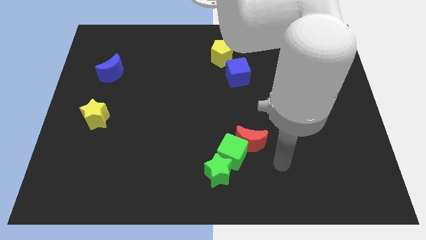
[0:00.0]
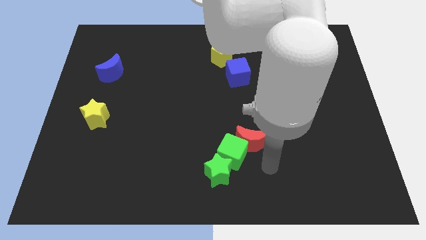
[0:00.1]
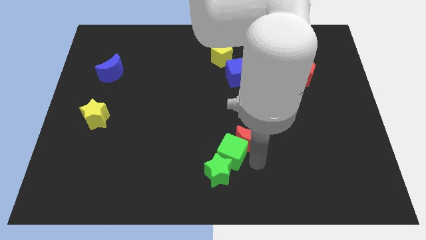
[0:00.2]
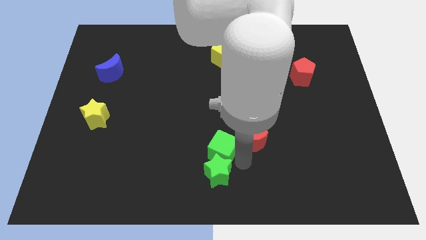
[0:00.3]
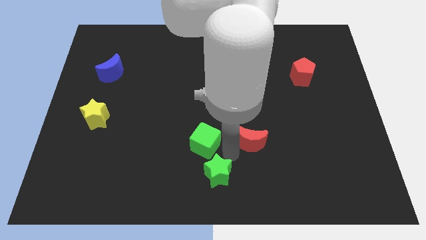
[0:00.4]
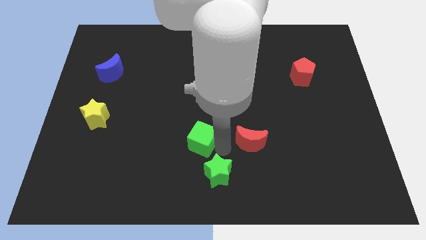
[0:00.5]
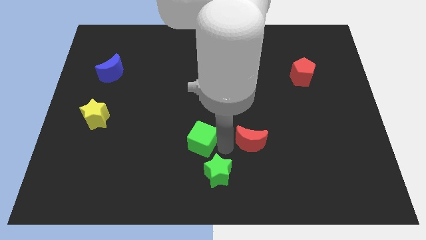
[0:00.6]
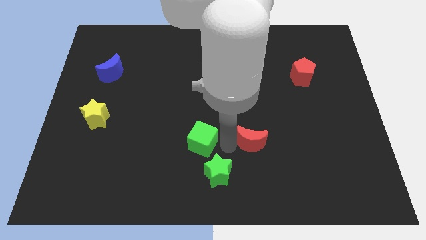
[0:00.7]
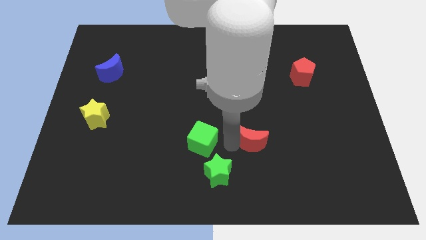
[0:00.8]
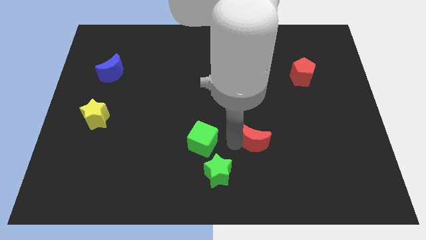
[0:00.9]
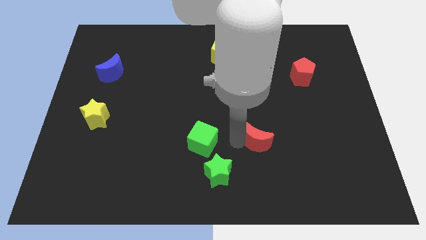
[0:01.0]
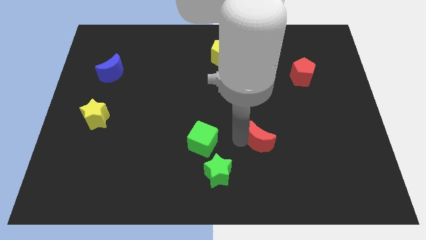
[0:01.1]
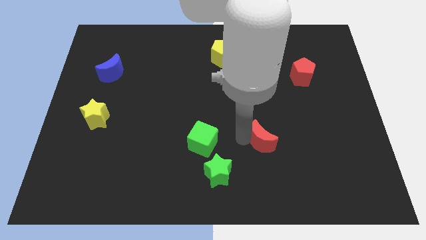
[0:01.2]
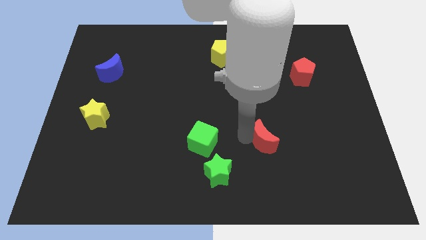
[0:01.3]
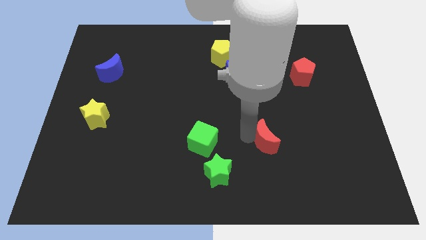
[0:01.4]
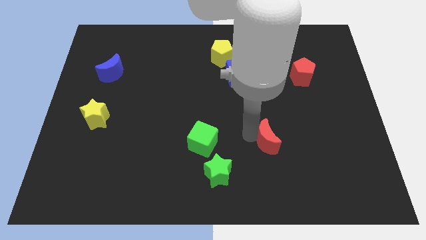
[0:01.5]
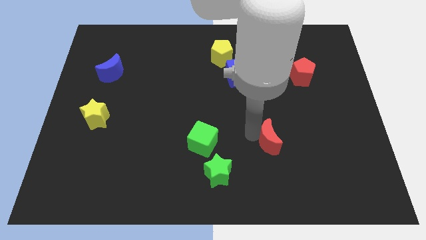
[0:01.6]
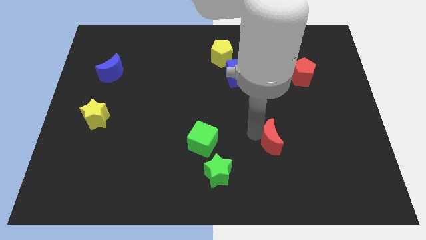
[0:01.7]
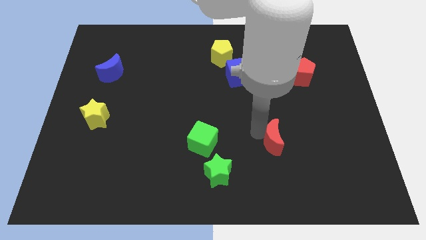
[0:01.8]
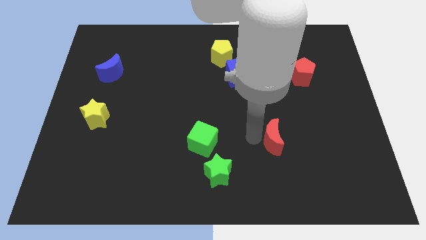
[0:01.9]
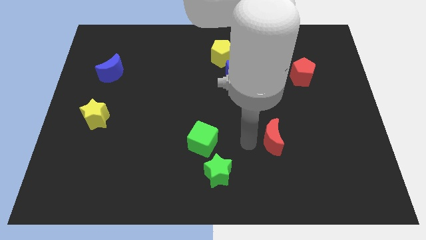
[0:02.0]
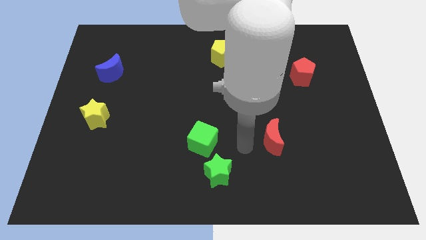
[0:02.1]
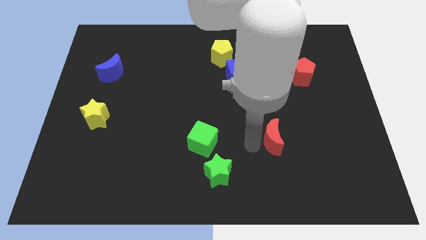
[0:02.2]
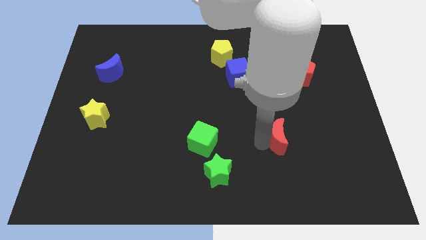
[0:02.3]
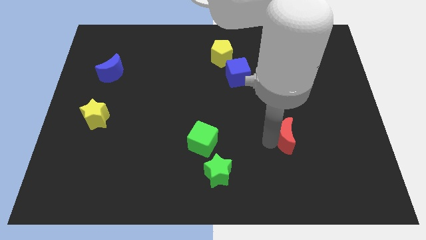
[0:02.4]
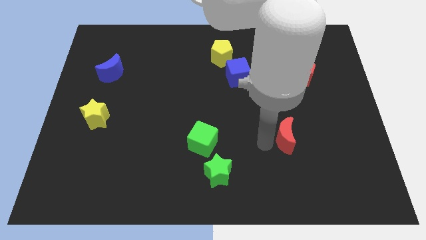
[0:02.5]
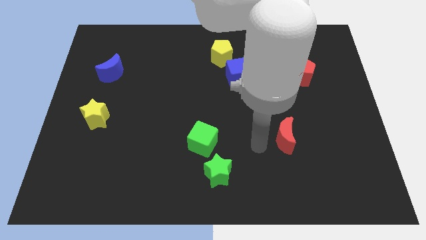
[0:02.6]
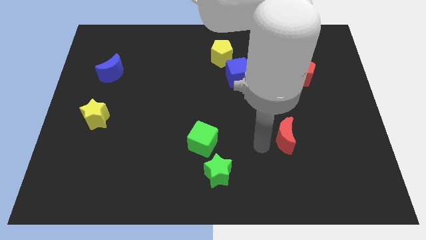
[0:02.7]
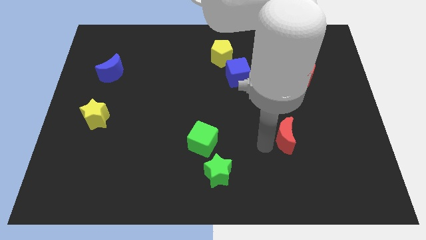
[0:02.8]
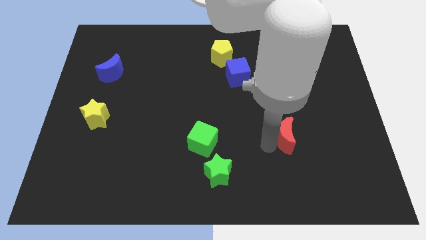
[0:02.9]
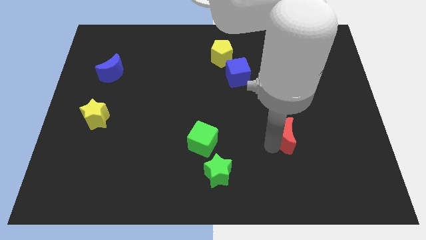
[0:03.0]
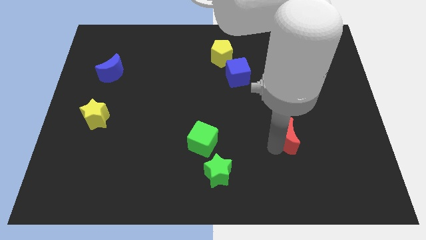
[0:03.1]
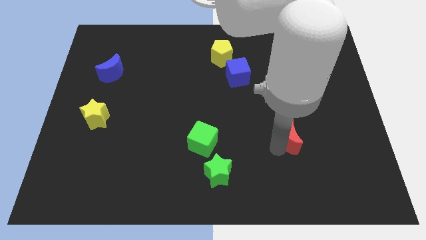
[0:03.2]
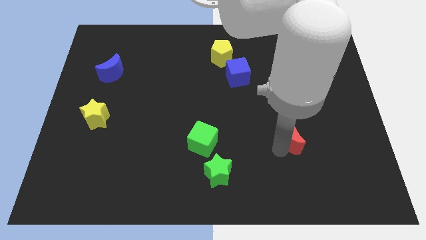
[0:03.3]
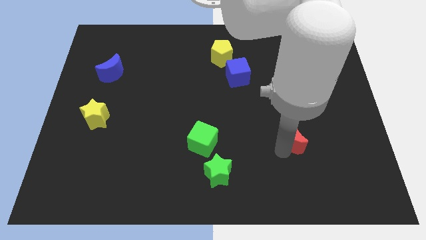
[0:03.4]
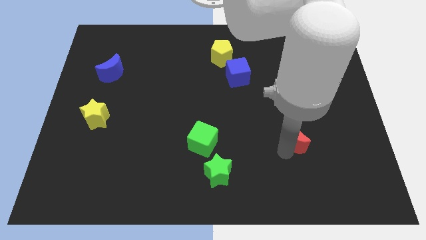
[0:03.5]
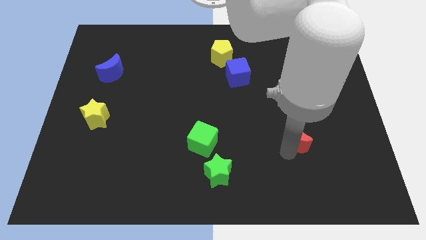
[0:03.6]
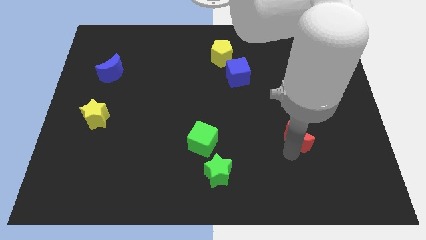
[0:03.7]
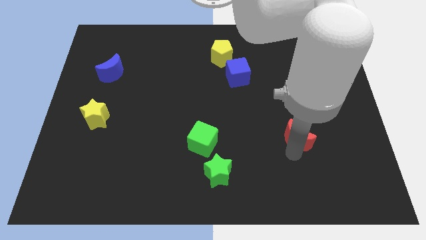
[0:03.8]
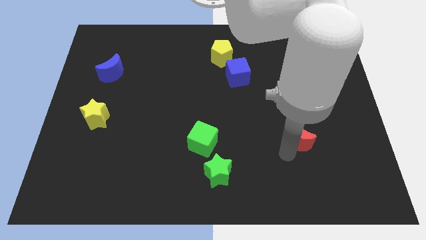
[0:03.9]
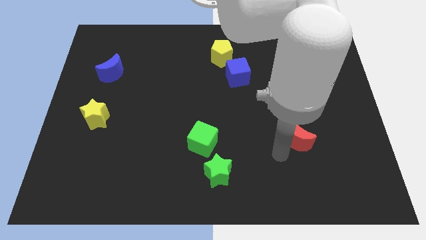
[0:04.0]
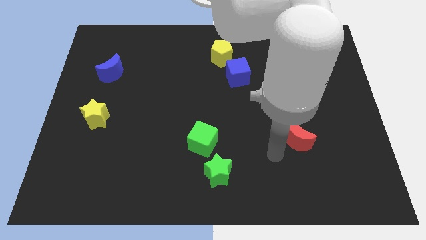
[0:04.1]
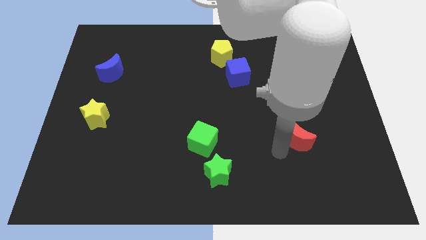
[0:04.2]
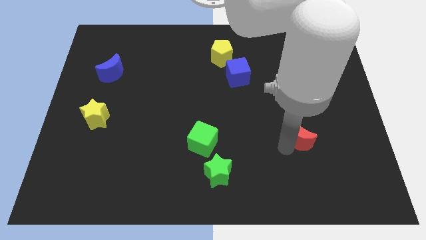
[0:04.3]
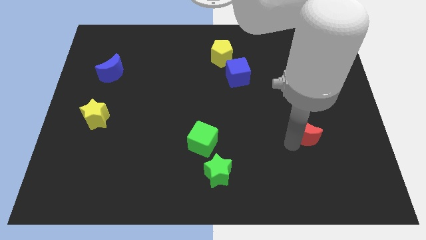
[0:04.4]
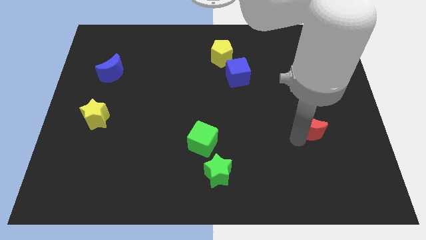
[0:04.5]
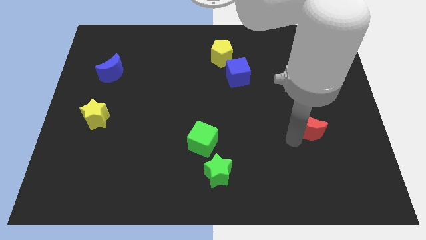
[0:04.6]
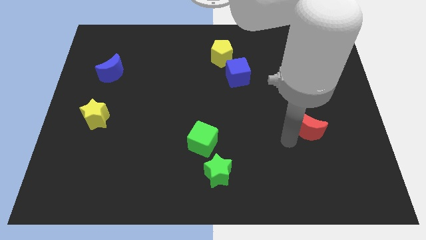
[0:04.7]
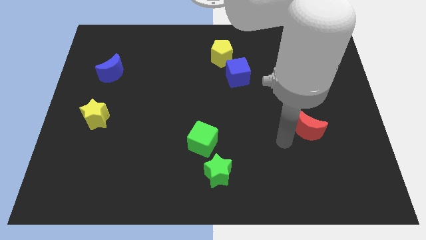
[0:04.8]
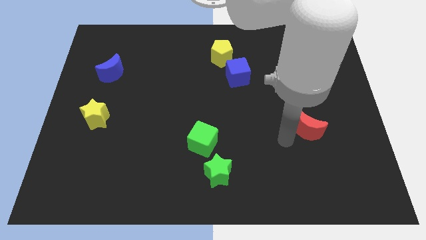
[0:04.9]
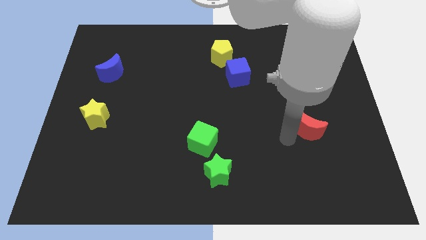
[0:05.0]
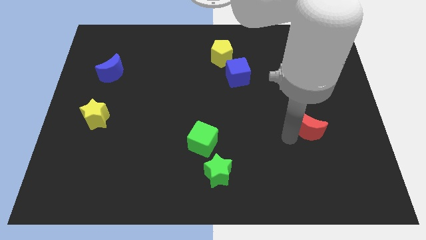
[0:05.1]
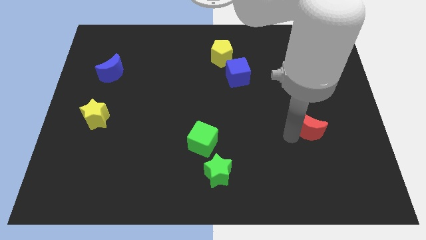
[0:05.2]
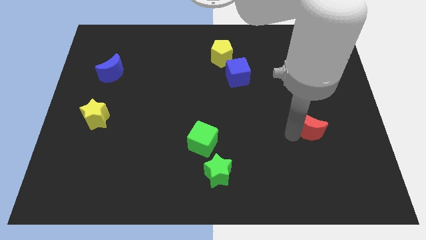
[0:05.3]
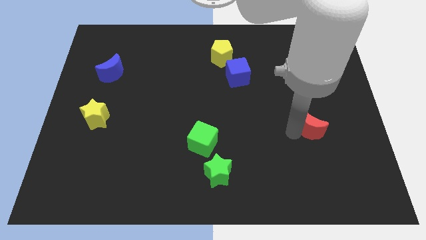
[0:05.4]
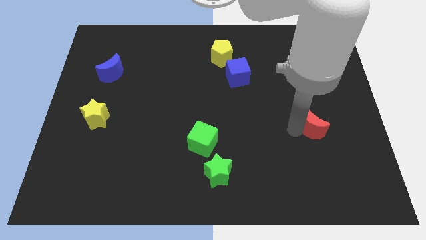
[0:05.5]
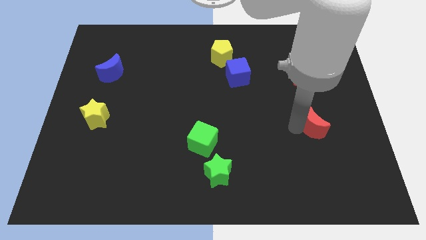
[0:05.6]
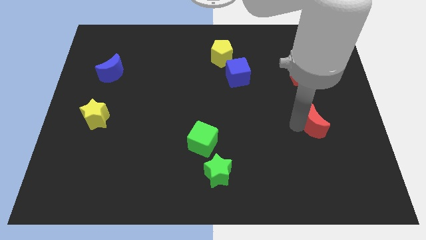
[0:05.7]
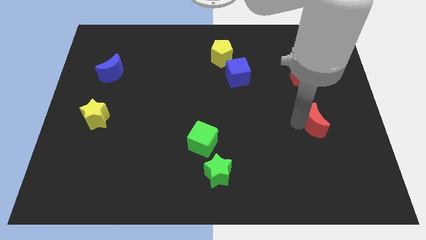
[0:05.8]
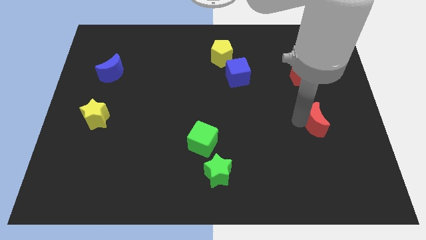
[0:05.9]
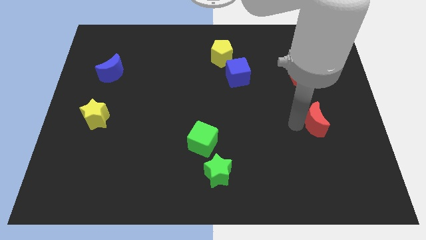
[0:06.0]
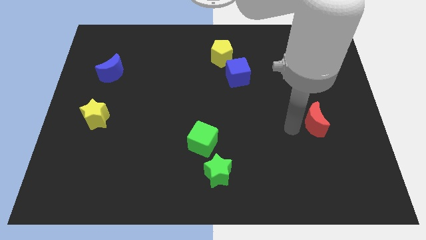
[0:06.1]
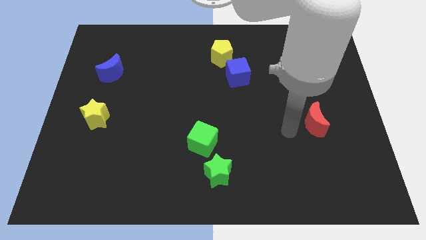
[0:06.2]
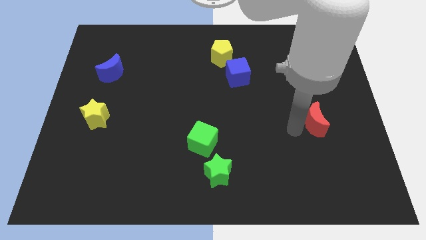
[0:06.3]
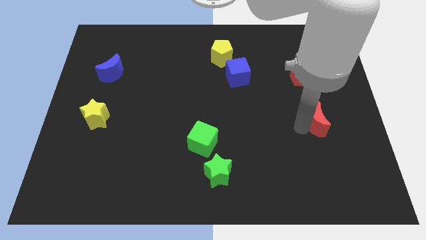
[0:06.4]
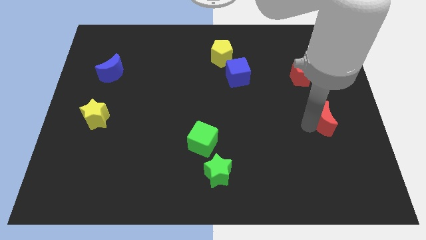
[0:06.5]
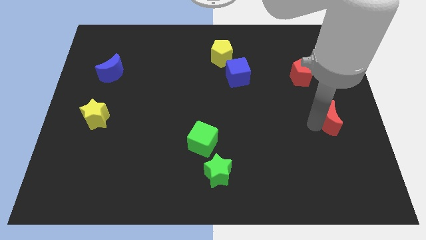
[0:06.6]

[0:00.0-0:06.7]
move the red moon to the right side
